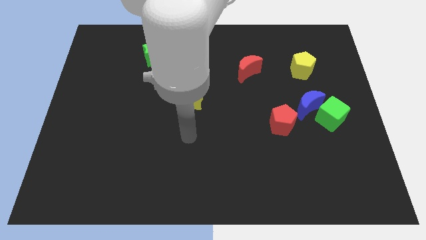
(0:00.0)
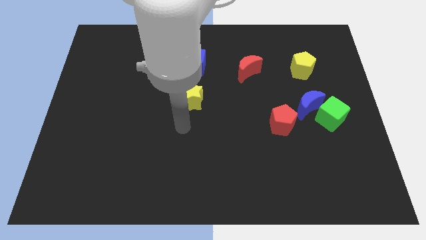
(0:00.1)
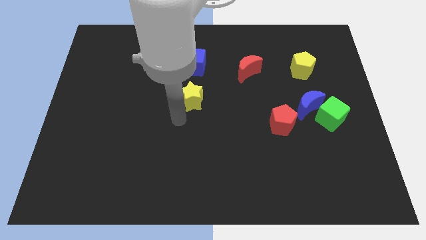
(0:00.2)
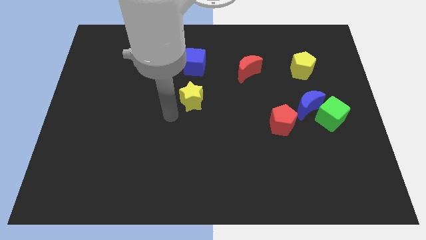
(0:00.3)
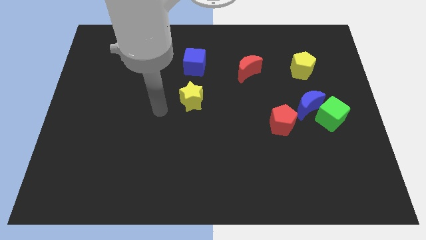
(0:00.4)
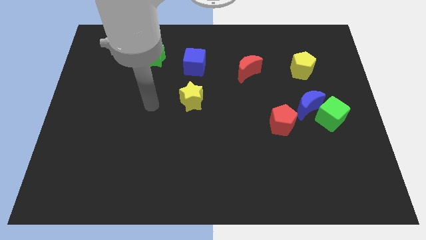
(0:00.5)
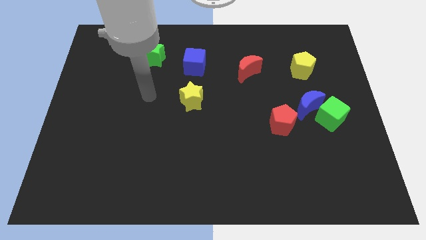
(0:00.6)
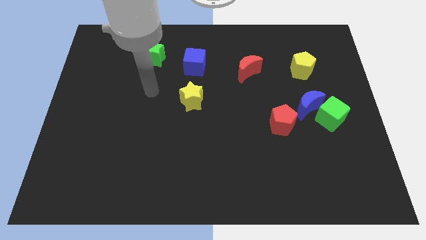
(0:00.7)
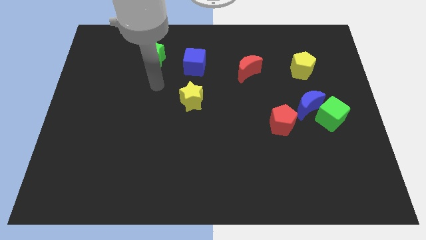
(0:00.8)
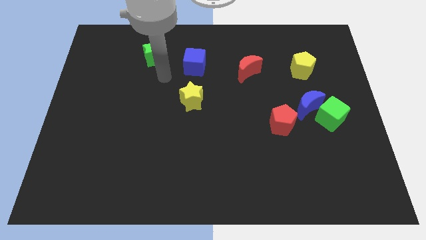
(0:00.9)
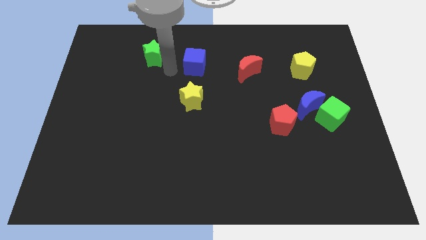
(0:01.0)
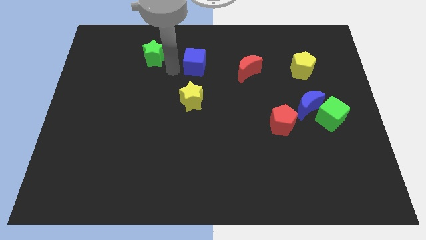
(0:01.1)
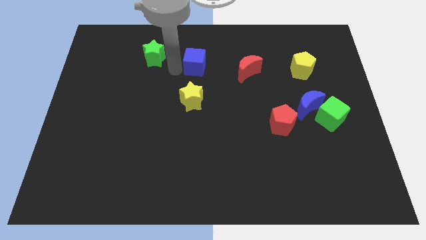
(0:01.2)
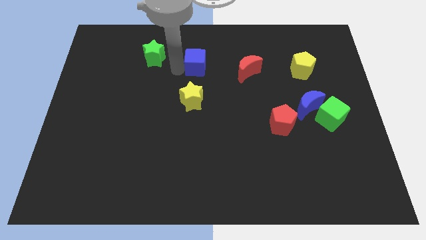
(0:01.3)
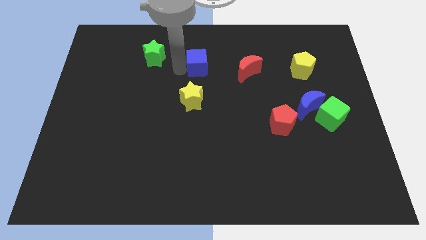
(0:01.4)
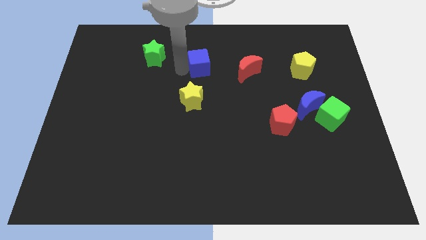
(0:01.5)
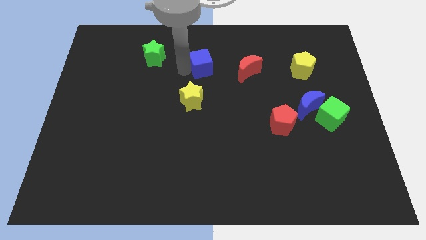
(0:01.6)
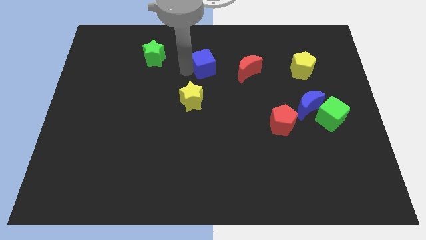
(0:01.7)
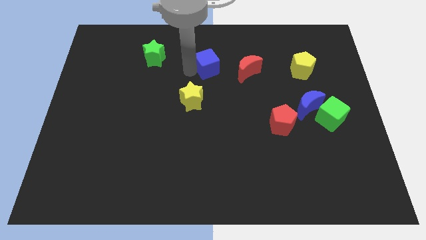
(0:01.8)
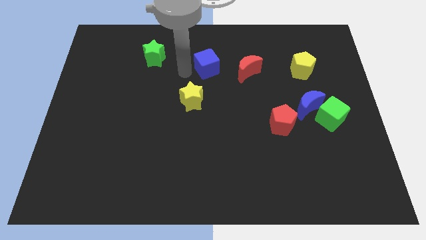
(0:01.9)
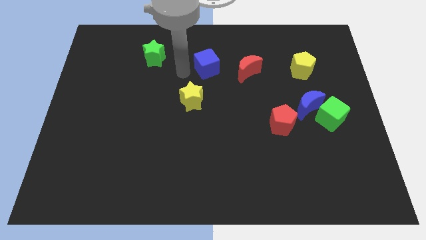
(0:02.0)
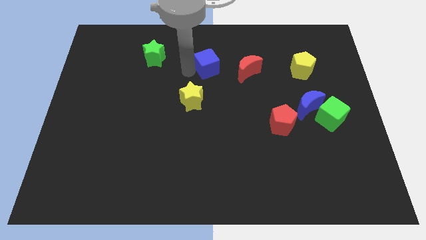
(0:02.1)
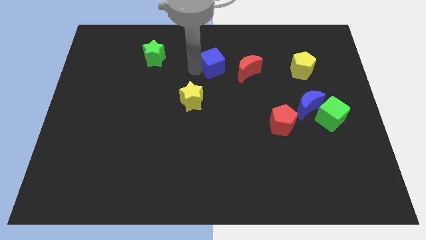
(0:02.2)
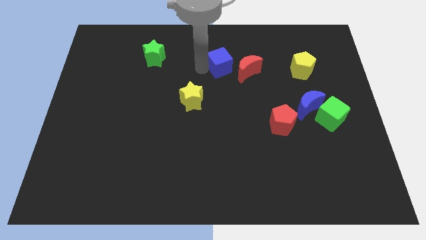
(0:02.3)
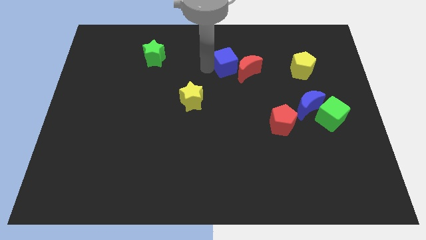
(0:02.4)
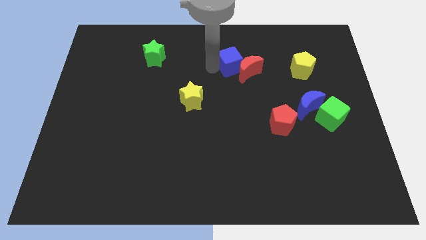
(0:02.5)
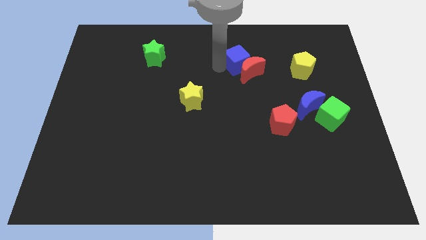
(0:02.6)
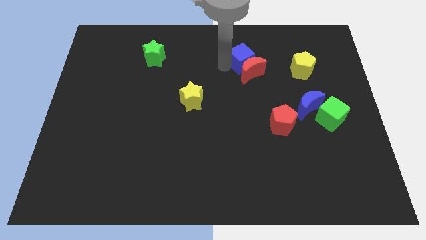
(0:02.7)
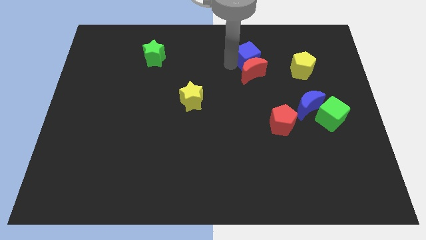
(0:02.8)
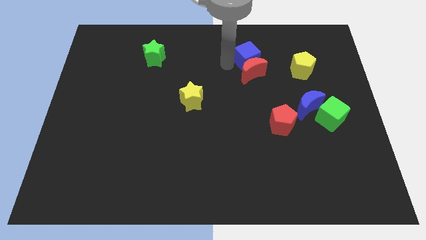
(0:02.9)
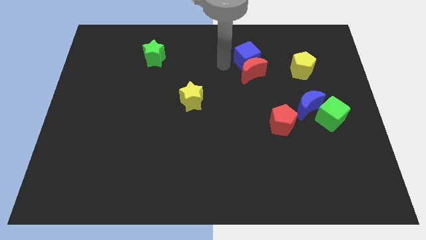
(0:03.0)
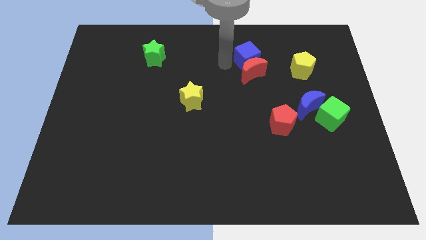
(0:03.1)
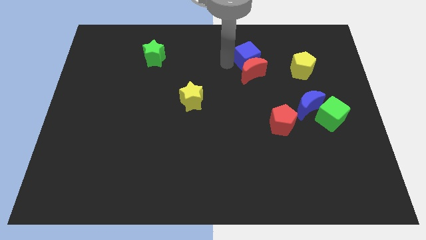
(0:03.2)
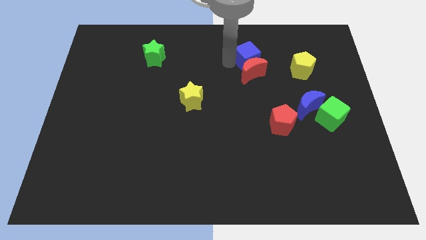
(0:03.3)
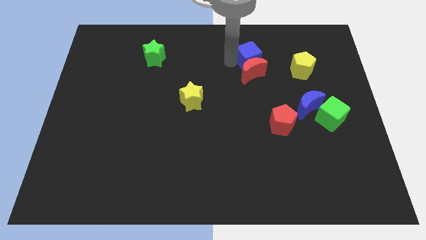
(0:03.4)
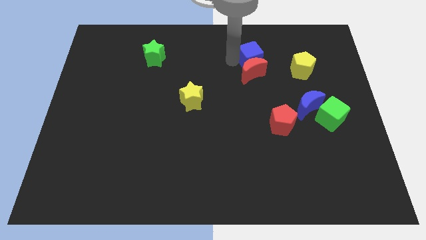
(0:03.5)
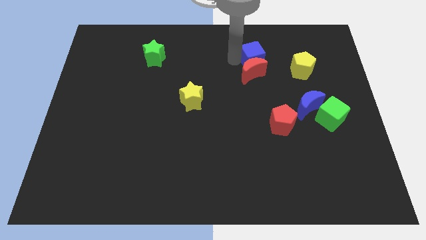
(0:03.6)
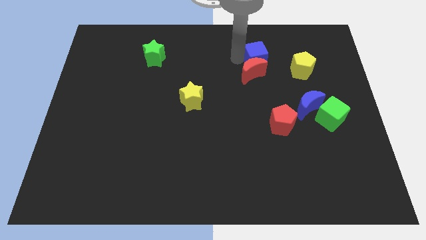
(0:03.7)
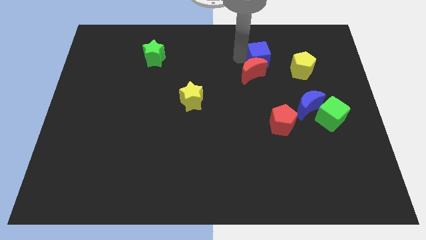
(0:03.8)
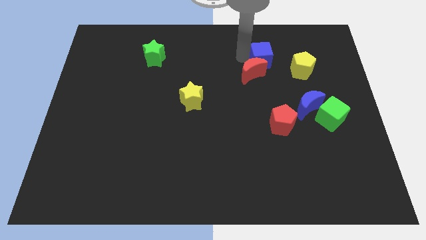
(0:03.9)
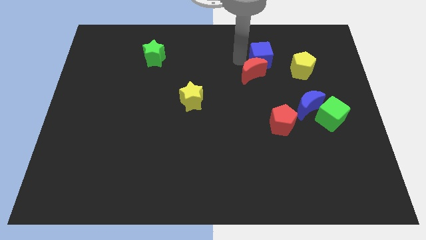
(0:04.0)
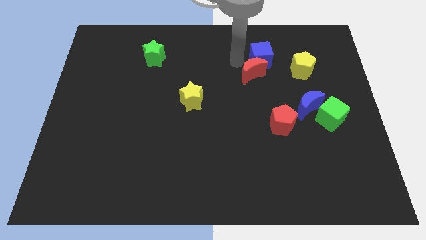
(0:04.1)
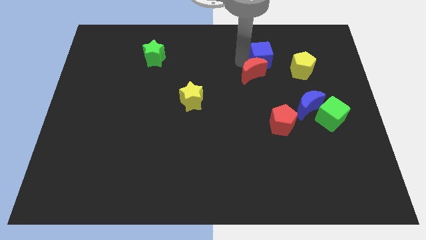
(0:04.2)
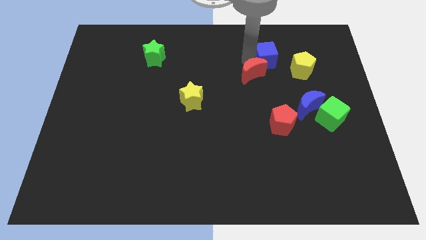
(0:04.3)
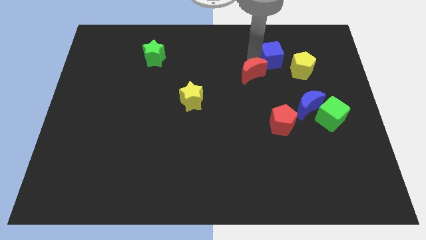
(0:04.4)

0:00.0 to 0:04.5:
move the blue cube right

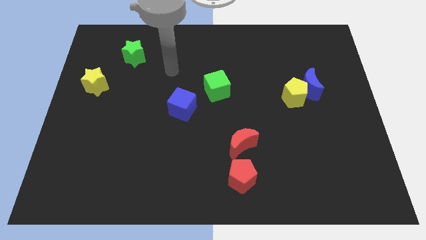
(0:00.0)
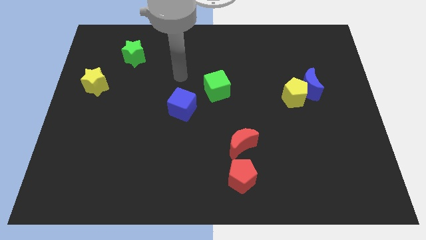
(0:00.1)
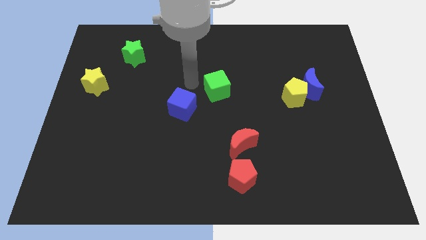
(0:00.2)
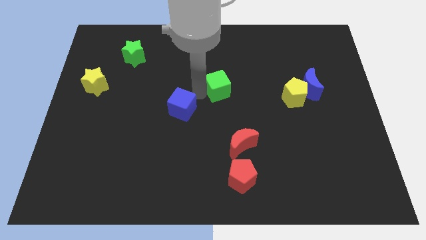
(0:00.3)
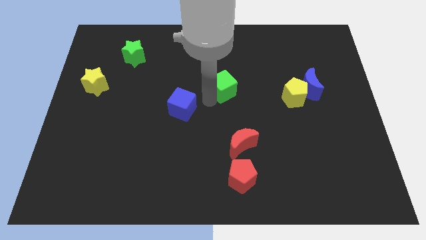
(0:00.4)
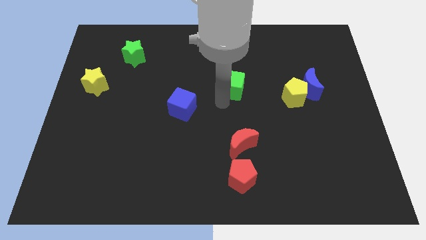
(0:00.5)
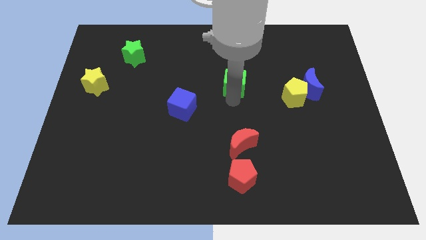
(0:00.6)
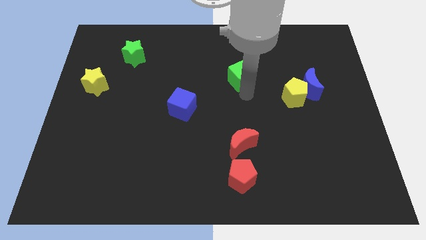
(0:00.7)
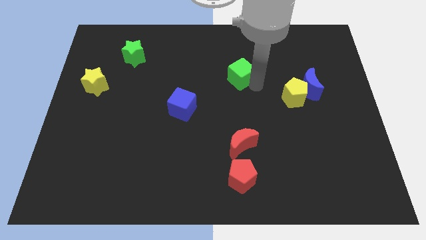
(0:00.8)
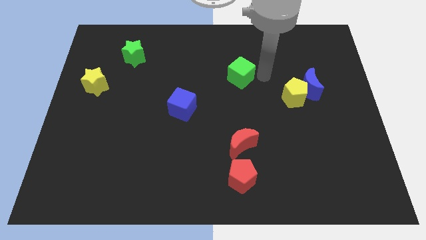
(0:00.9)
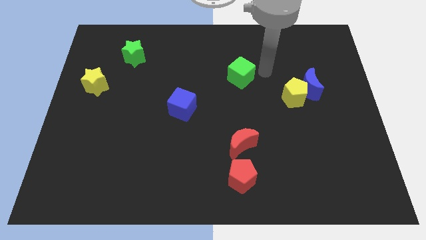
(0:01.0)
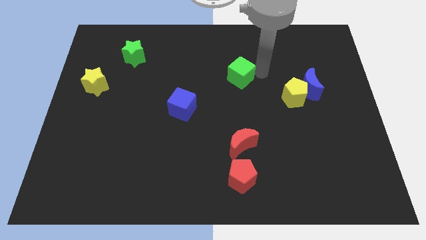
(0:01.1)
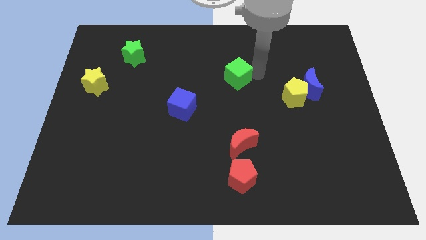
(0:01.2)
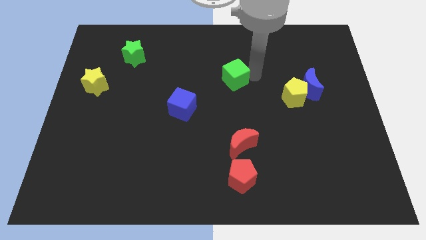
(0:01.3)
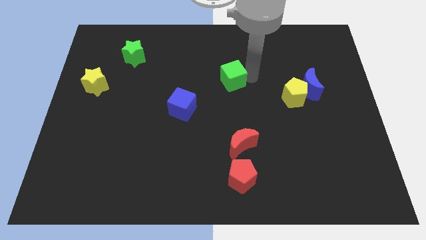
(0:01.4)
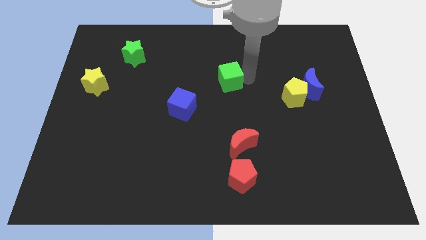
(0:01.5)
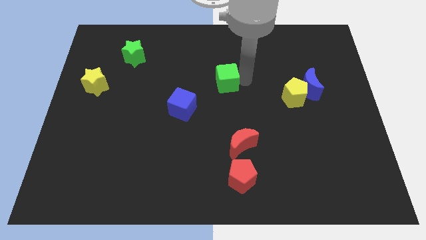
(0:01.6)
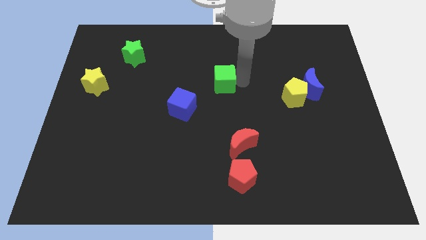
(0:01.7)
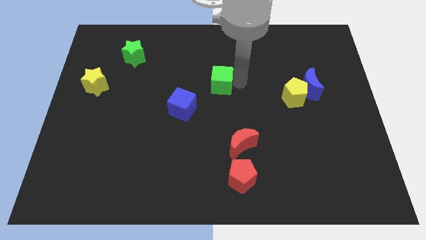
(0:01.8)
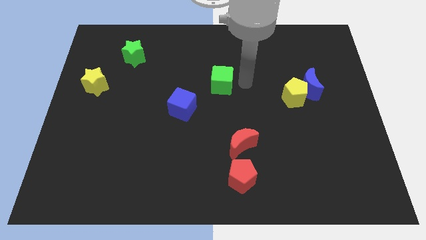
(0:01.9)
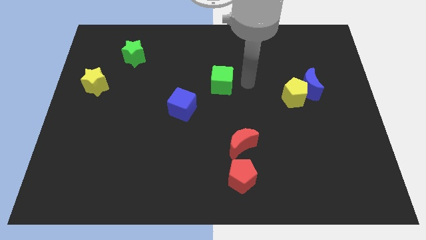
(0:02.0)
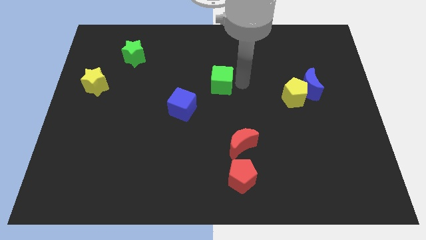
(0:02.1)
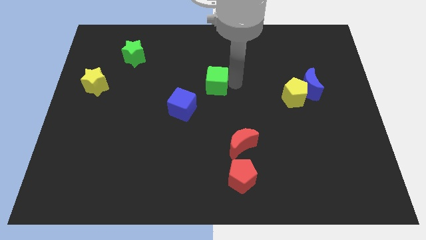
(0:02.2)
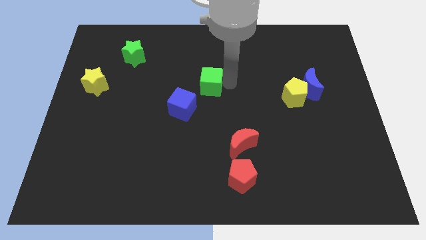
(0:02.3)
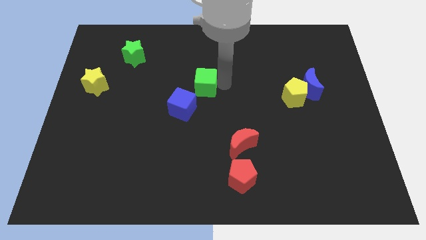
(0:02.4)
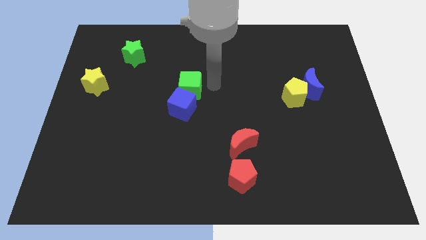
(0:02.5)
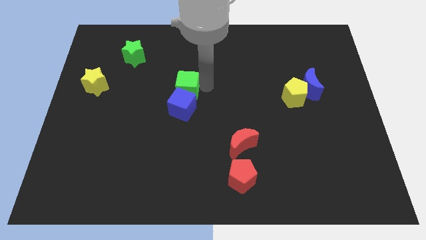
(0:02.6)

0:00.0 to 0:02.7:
move the green cube somewhat to the left

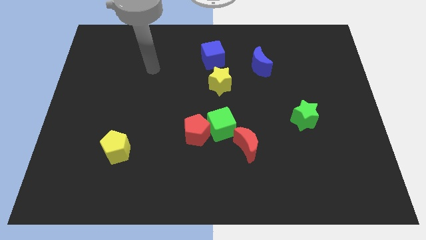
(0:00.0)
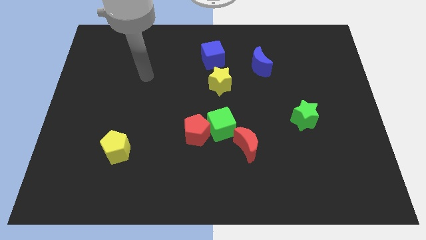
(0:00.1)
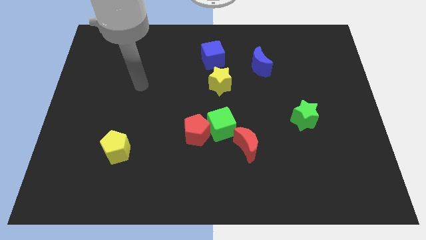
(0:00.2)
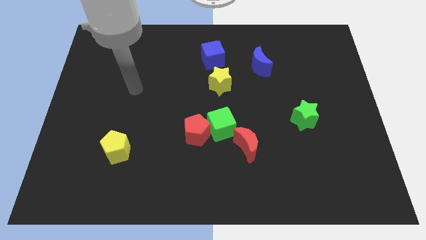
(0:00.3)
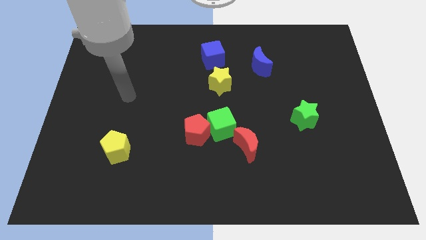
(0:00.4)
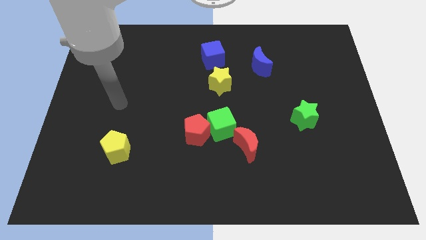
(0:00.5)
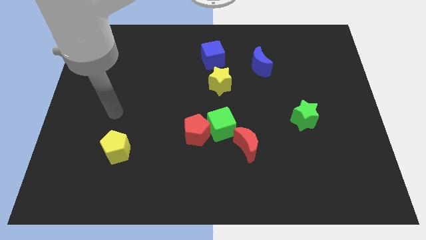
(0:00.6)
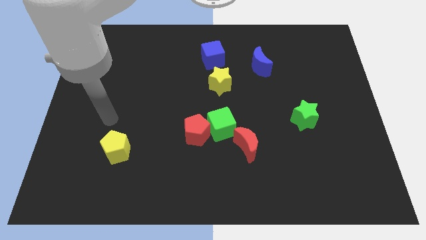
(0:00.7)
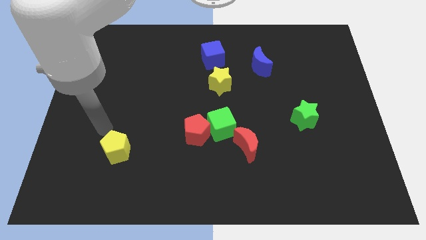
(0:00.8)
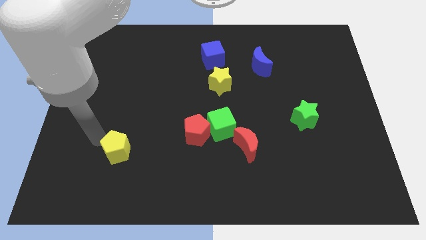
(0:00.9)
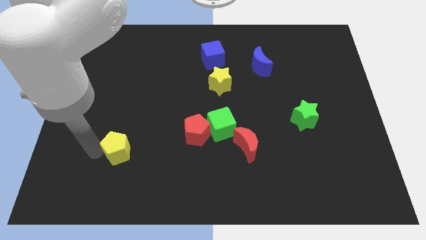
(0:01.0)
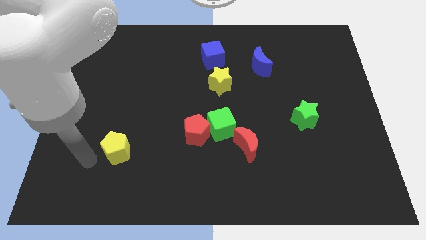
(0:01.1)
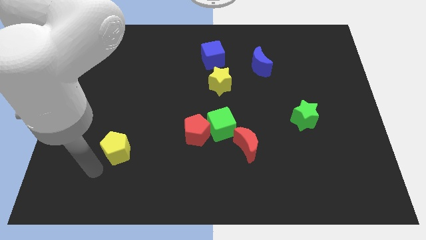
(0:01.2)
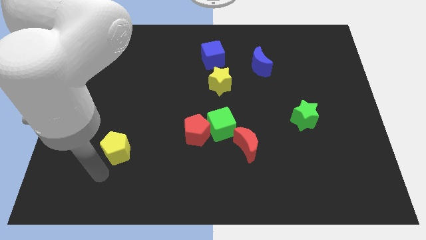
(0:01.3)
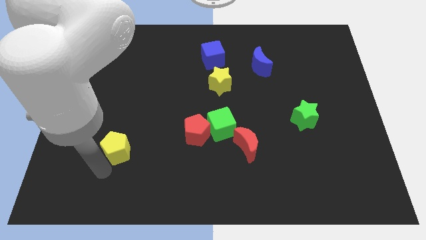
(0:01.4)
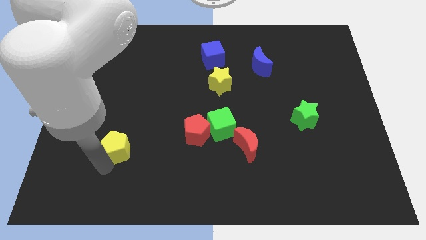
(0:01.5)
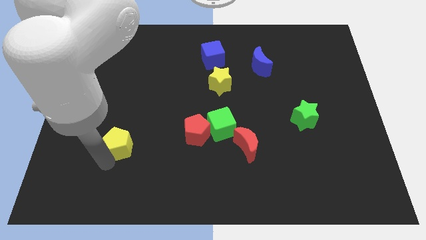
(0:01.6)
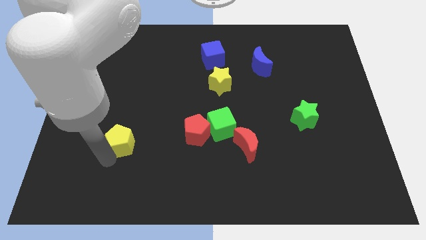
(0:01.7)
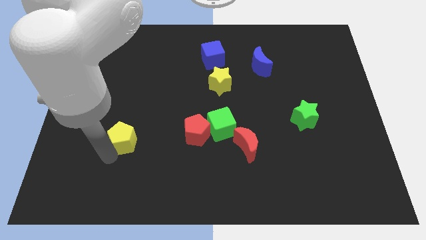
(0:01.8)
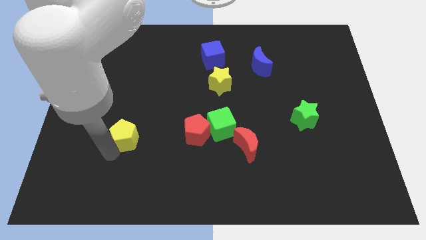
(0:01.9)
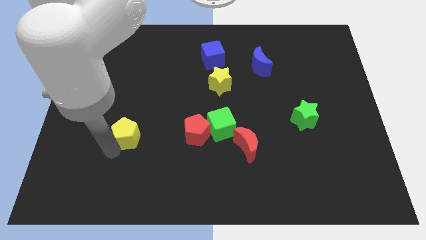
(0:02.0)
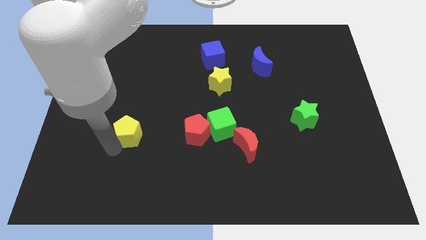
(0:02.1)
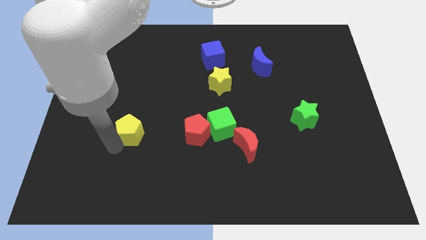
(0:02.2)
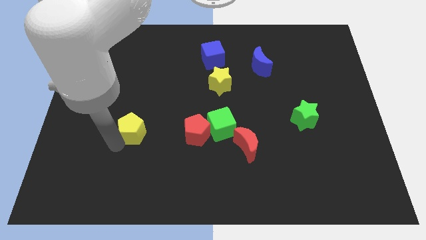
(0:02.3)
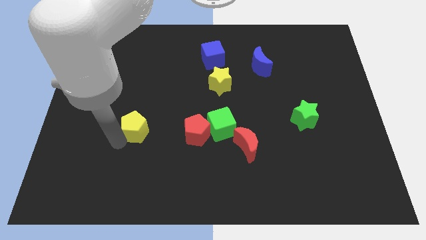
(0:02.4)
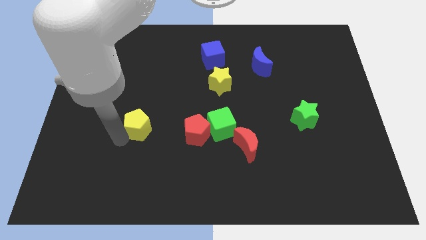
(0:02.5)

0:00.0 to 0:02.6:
slightly move the yellow pentagon upwards and right
